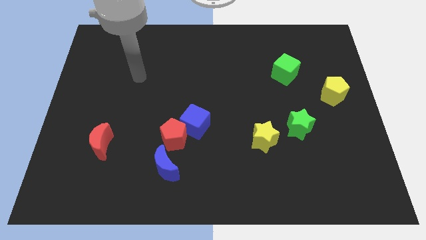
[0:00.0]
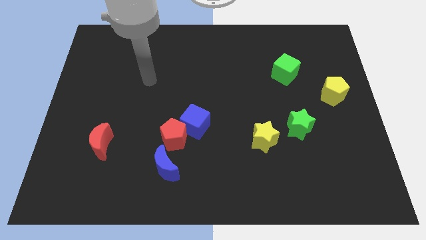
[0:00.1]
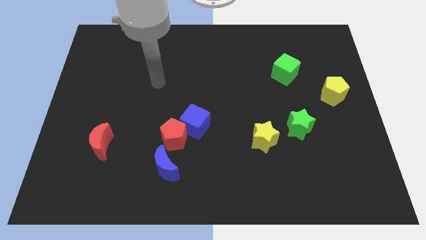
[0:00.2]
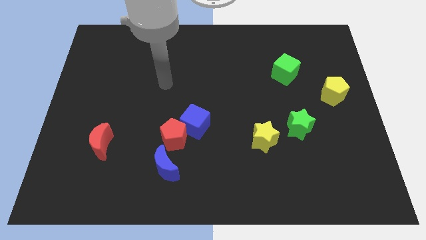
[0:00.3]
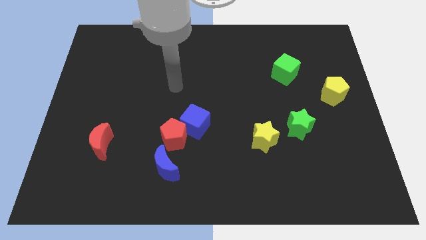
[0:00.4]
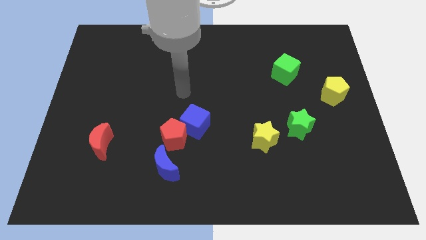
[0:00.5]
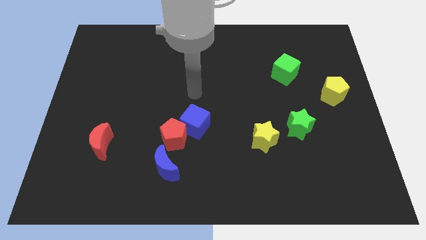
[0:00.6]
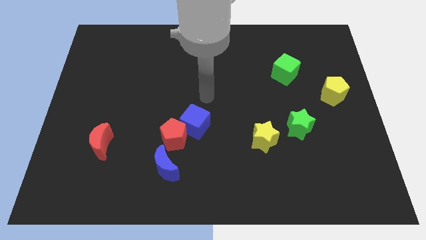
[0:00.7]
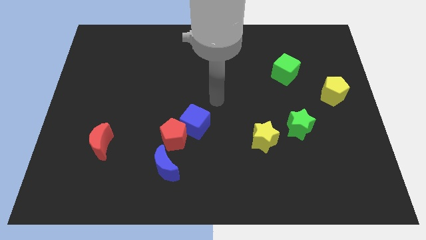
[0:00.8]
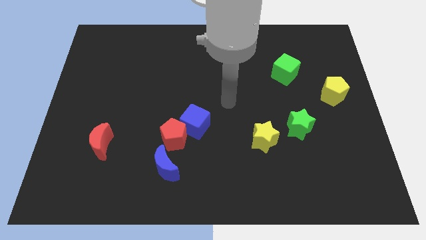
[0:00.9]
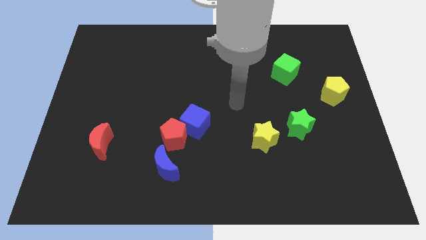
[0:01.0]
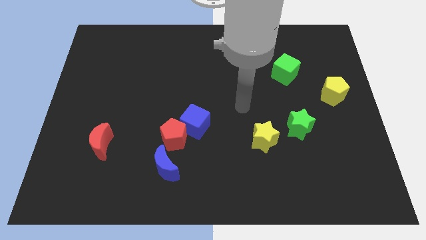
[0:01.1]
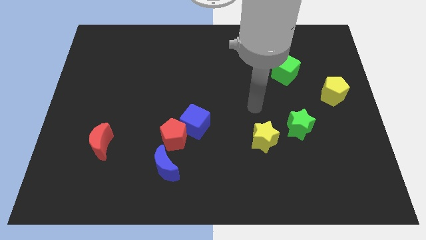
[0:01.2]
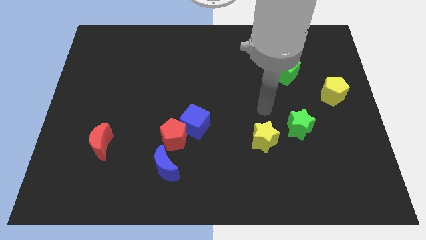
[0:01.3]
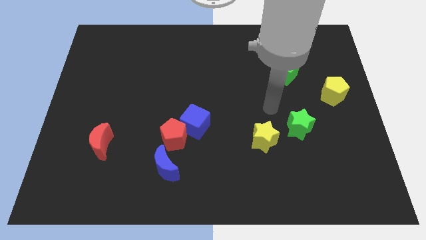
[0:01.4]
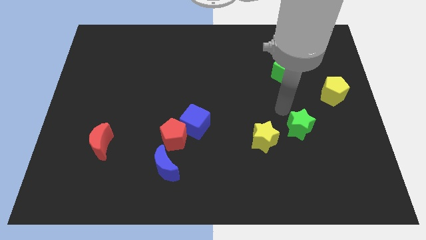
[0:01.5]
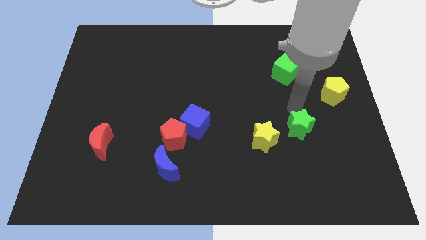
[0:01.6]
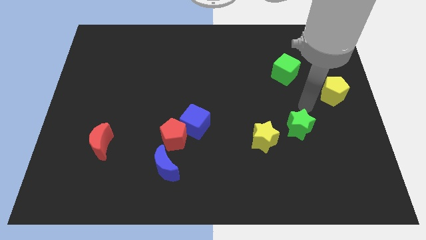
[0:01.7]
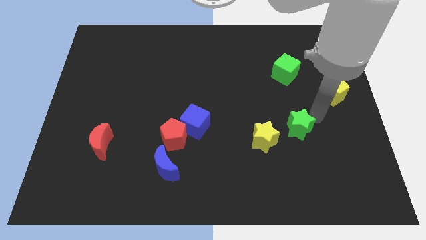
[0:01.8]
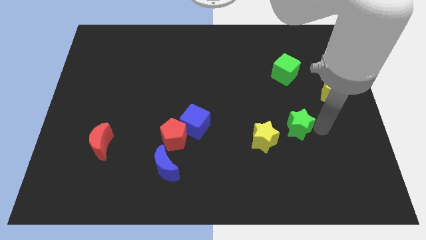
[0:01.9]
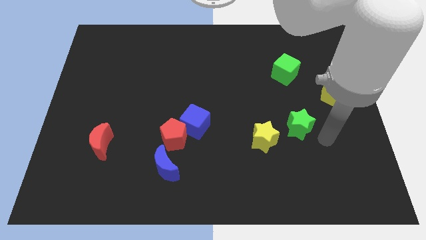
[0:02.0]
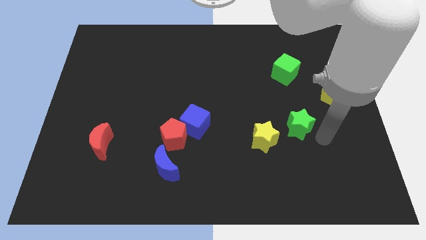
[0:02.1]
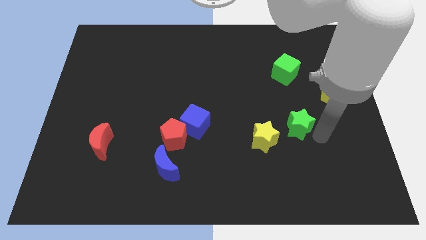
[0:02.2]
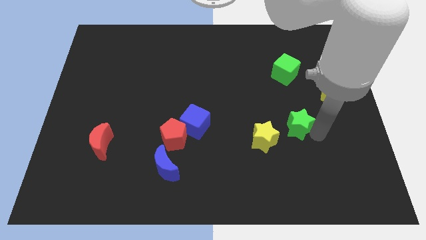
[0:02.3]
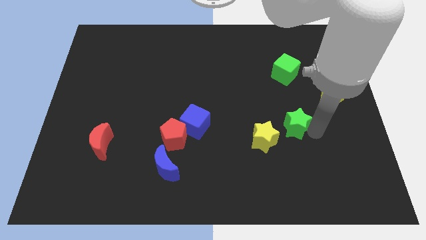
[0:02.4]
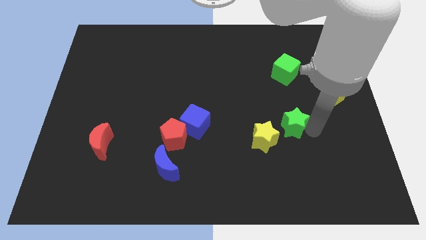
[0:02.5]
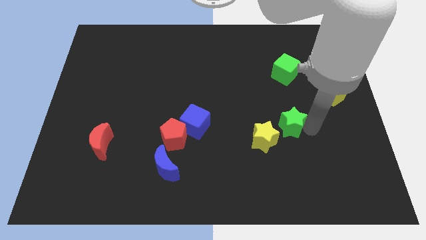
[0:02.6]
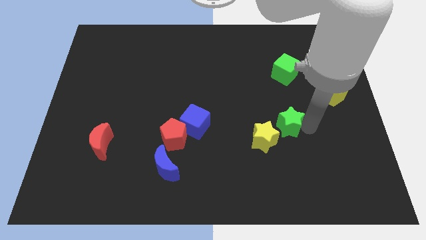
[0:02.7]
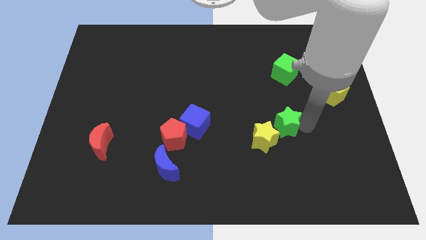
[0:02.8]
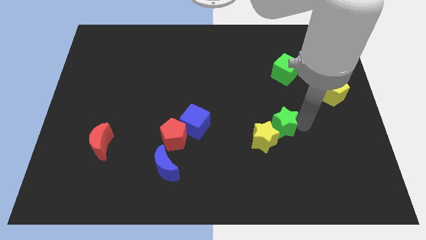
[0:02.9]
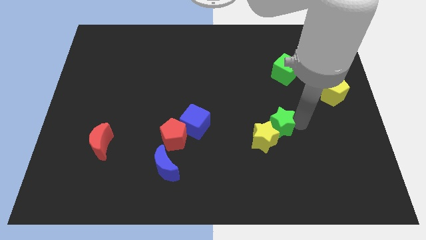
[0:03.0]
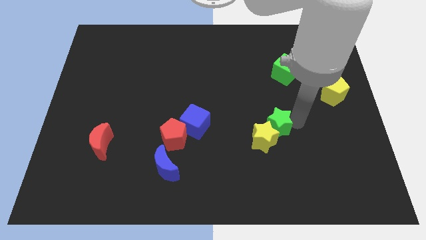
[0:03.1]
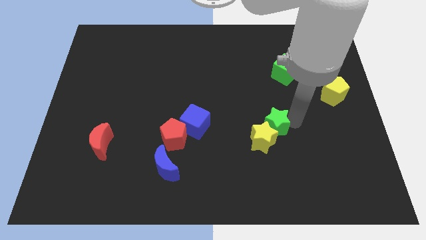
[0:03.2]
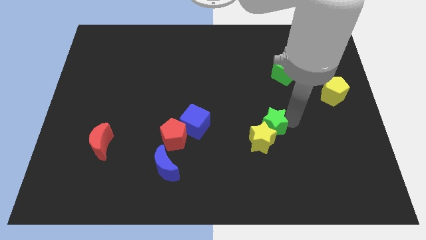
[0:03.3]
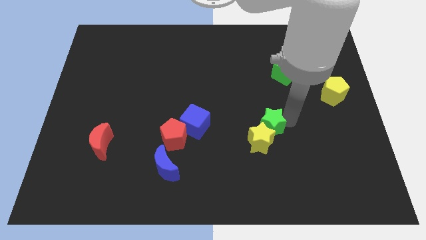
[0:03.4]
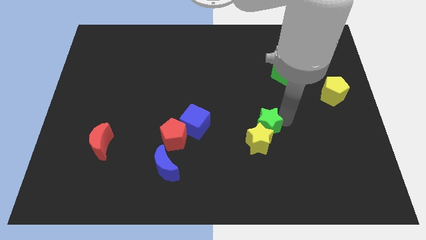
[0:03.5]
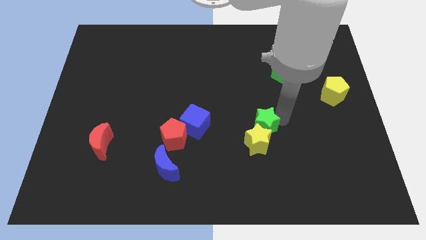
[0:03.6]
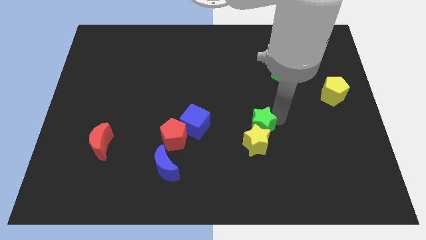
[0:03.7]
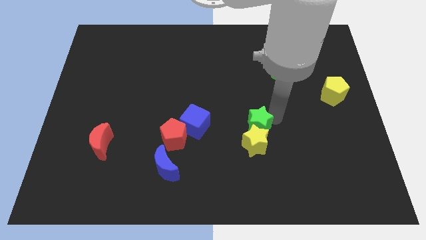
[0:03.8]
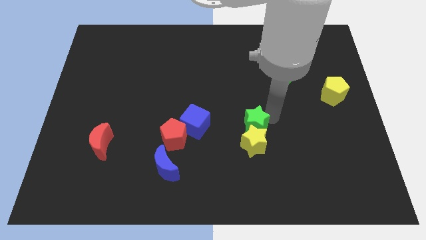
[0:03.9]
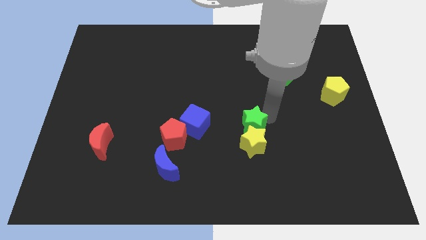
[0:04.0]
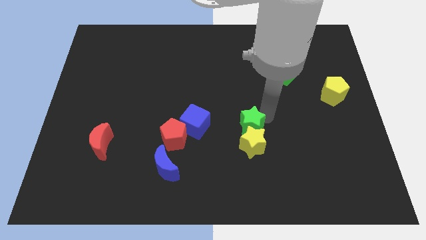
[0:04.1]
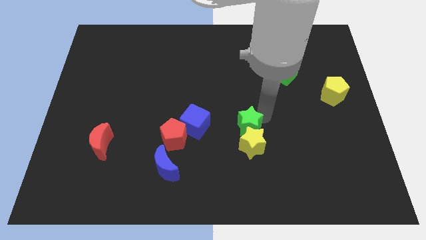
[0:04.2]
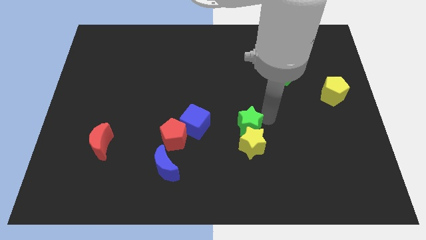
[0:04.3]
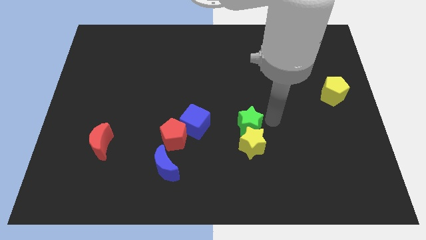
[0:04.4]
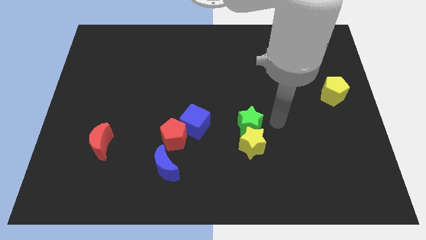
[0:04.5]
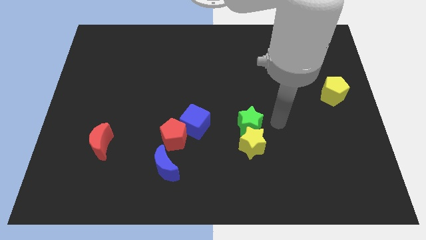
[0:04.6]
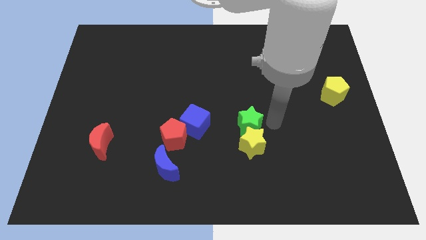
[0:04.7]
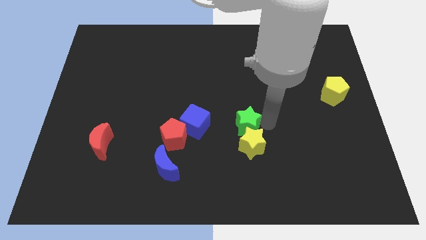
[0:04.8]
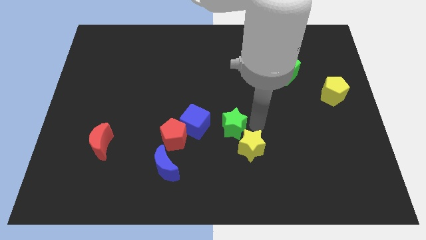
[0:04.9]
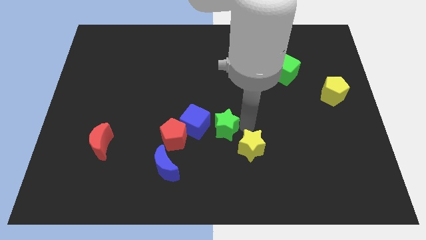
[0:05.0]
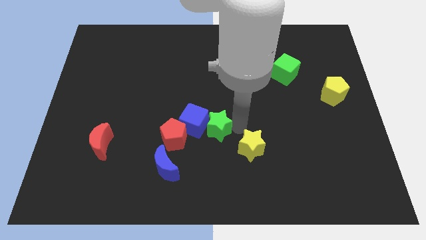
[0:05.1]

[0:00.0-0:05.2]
put the green star close to the blue cube

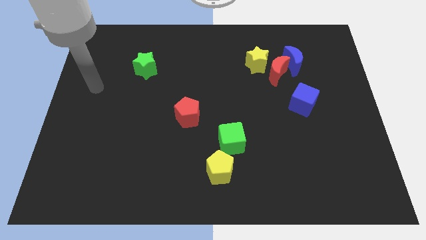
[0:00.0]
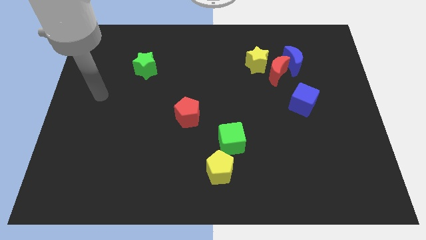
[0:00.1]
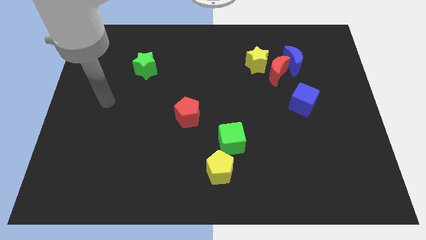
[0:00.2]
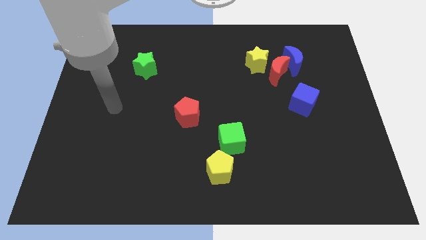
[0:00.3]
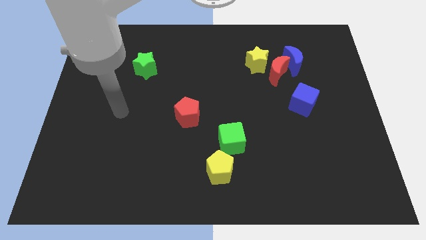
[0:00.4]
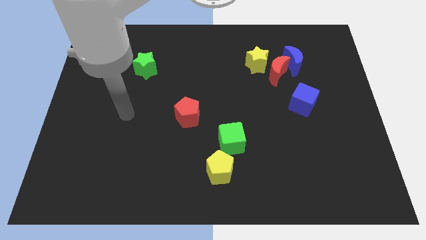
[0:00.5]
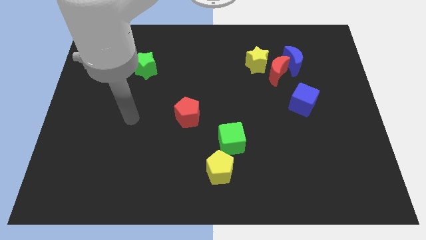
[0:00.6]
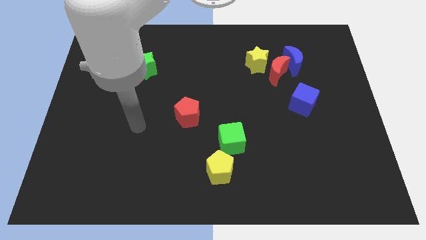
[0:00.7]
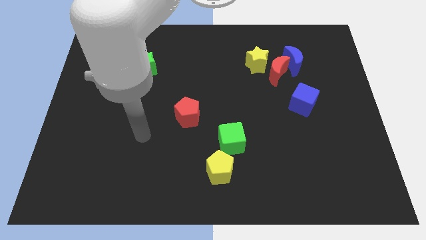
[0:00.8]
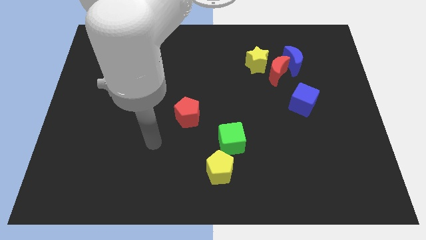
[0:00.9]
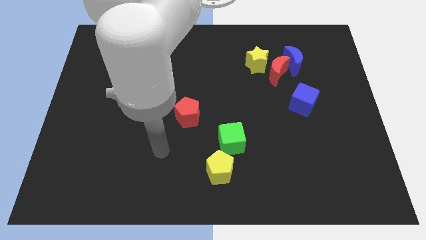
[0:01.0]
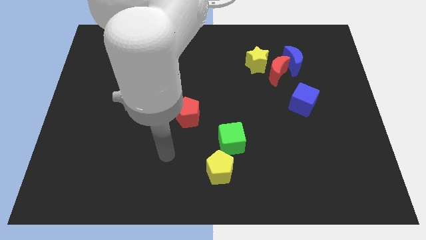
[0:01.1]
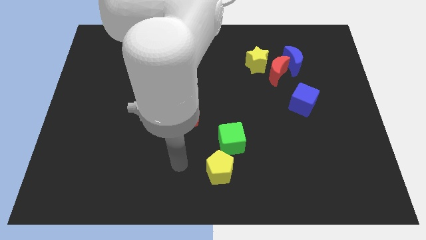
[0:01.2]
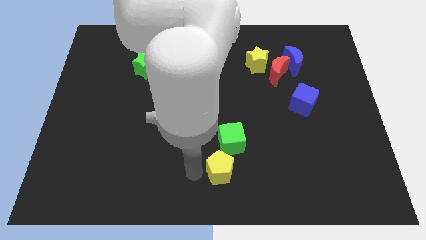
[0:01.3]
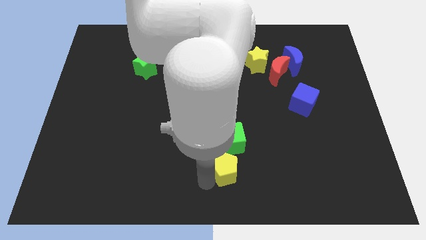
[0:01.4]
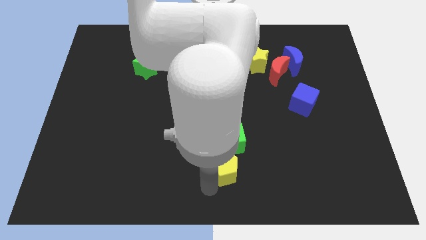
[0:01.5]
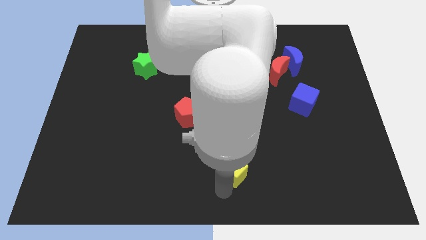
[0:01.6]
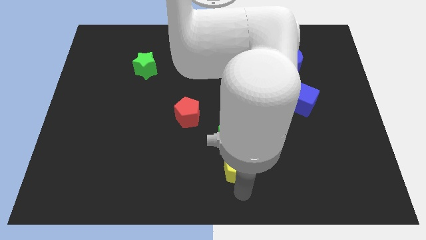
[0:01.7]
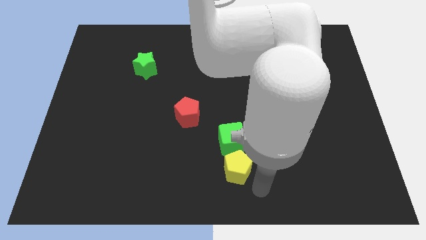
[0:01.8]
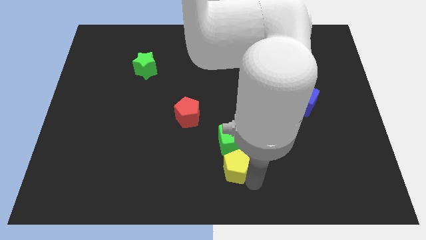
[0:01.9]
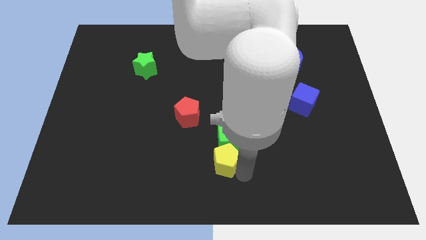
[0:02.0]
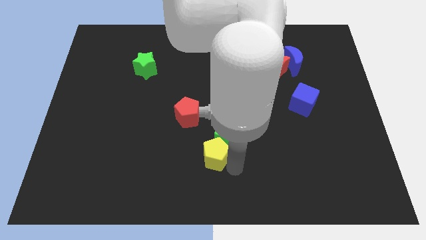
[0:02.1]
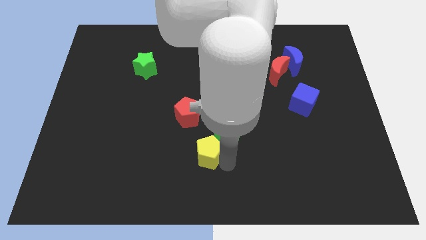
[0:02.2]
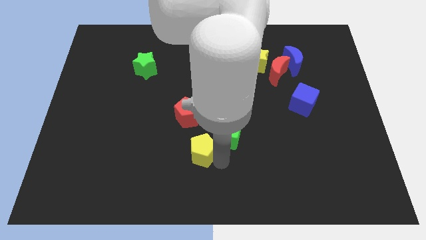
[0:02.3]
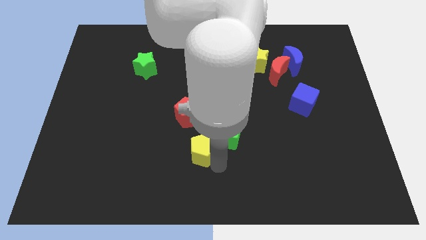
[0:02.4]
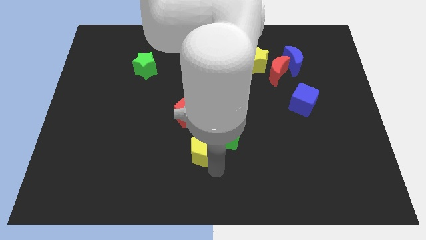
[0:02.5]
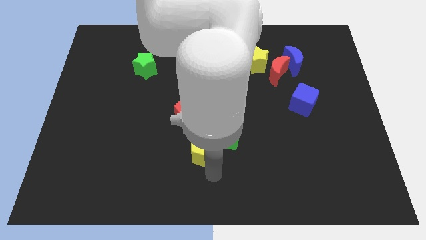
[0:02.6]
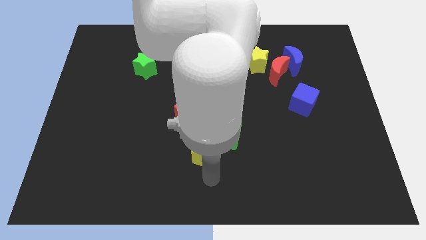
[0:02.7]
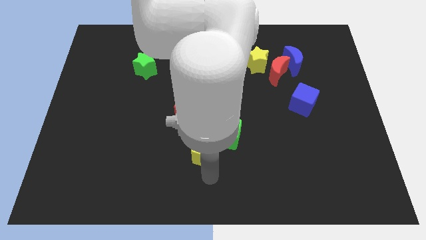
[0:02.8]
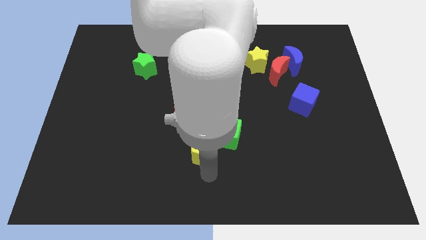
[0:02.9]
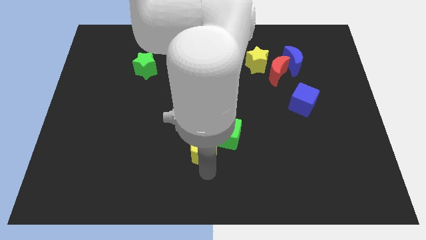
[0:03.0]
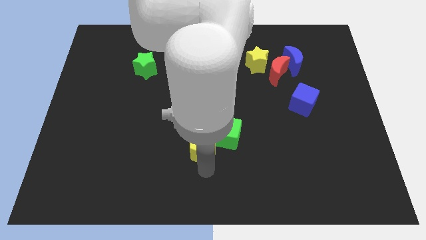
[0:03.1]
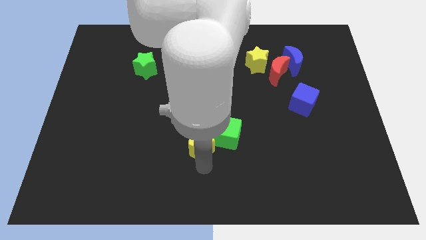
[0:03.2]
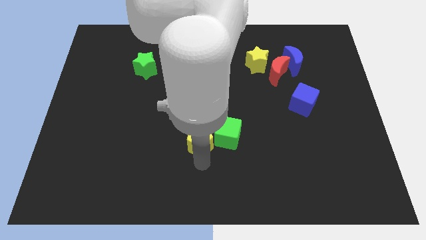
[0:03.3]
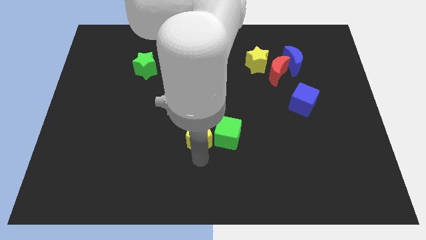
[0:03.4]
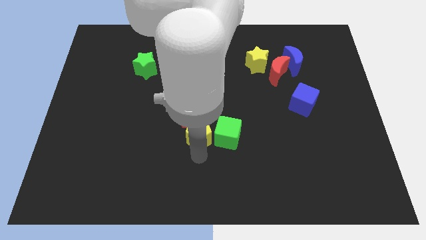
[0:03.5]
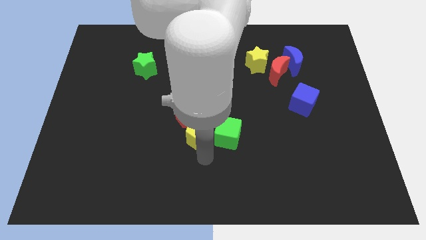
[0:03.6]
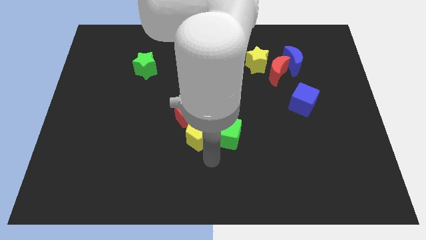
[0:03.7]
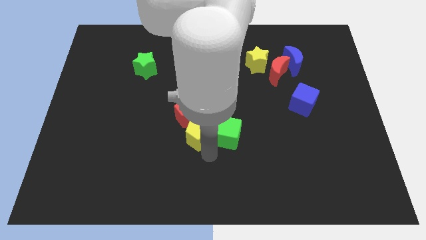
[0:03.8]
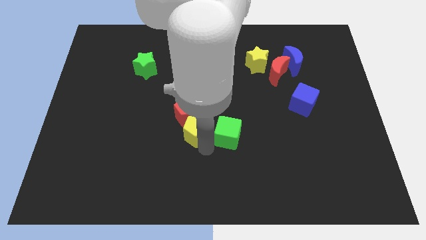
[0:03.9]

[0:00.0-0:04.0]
move the yellow pentagon to the red pentagon
